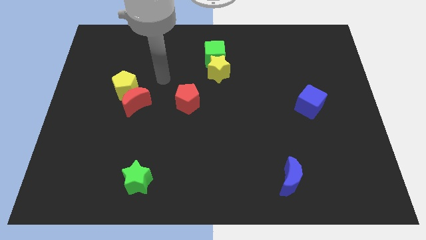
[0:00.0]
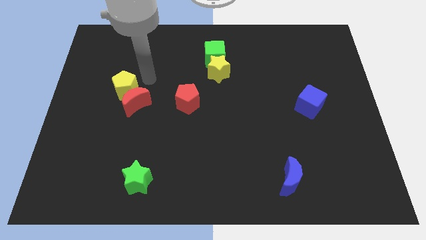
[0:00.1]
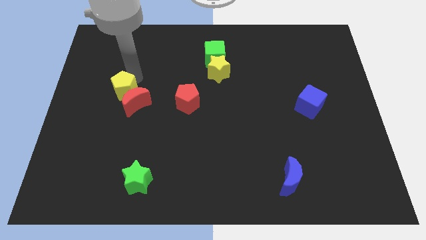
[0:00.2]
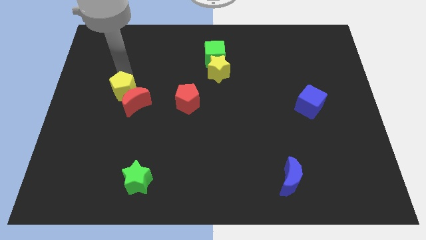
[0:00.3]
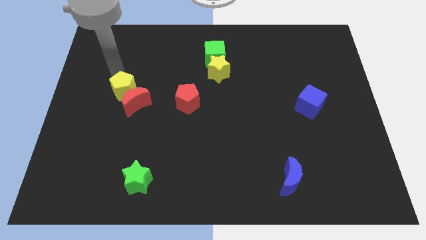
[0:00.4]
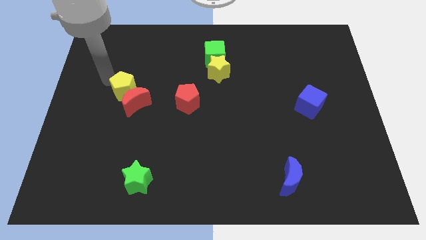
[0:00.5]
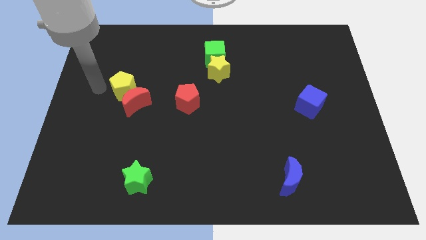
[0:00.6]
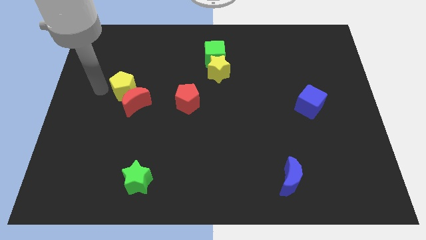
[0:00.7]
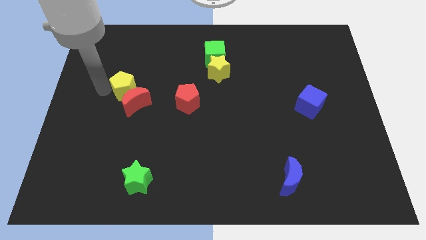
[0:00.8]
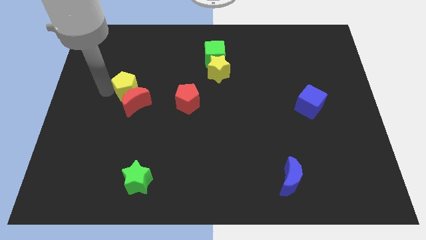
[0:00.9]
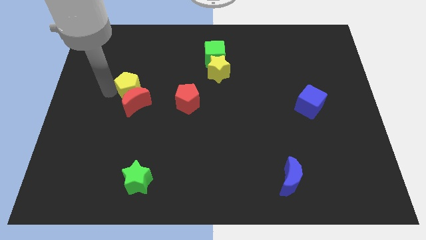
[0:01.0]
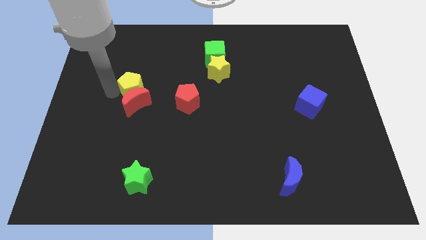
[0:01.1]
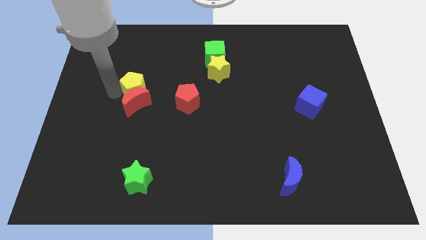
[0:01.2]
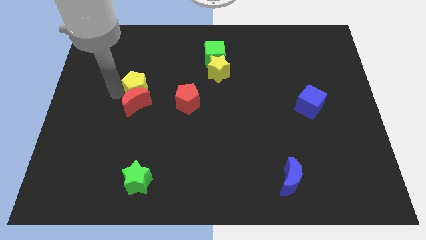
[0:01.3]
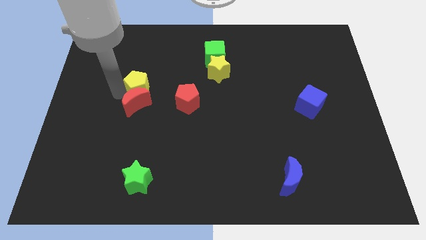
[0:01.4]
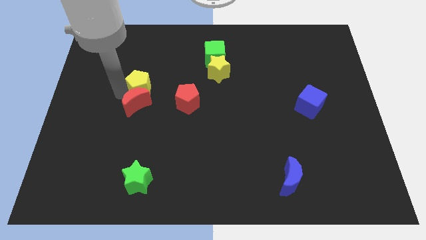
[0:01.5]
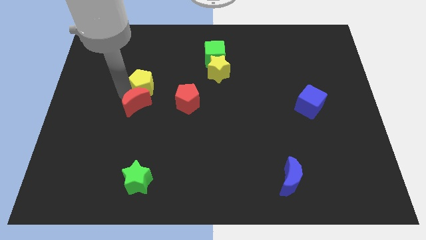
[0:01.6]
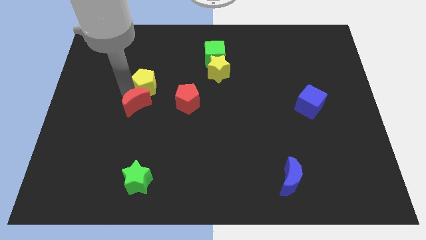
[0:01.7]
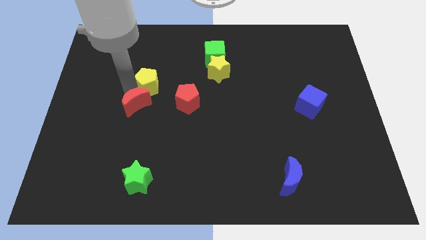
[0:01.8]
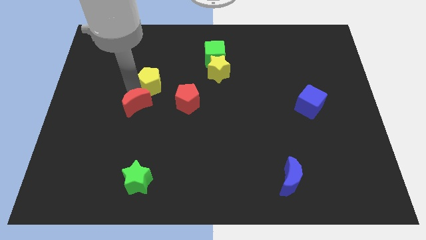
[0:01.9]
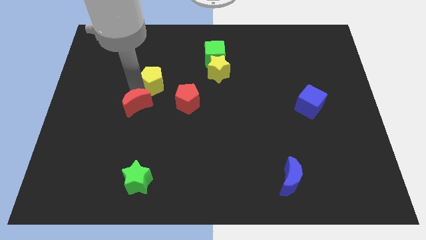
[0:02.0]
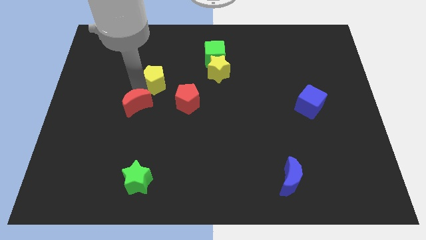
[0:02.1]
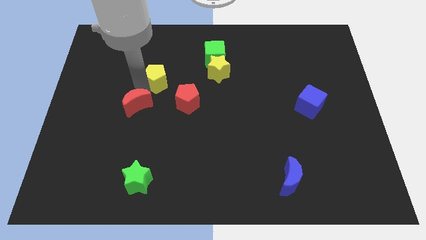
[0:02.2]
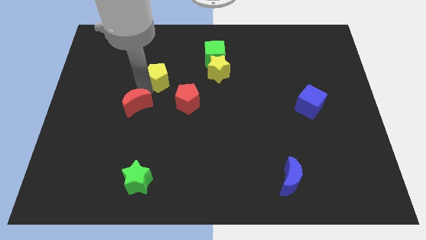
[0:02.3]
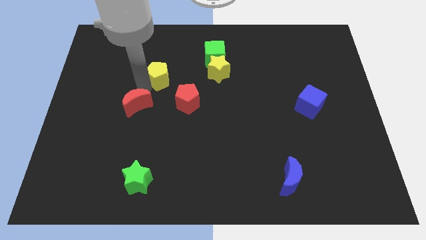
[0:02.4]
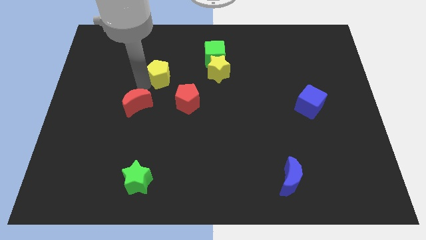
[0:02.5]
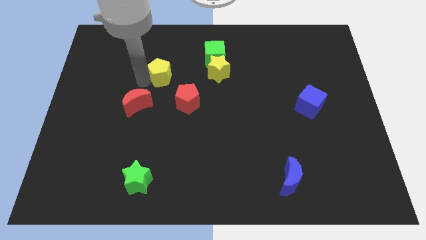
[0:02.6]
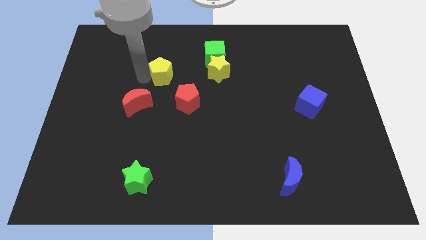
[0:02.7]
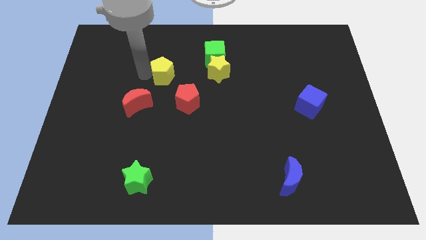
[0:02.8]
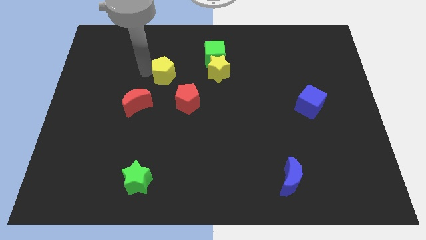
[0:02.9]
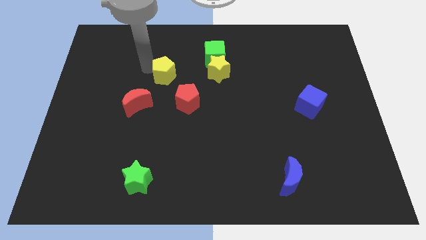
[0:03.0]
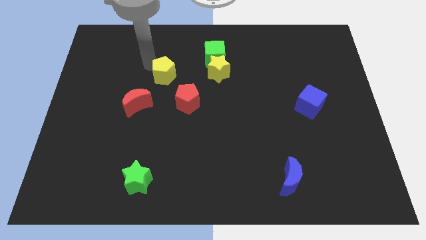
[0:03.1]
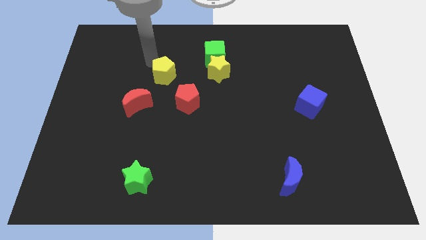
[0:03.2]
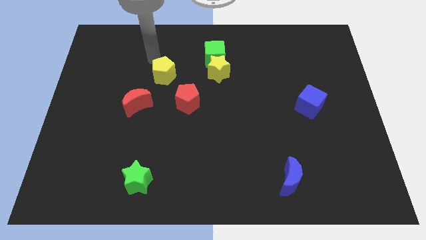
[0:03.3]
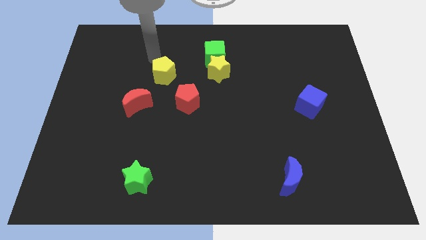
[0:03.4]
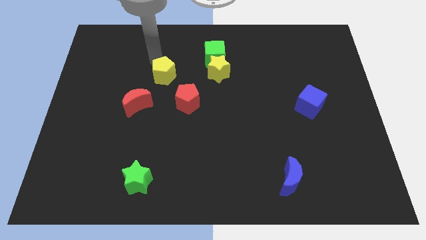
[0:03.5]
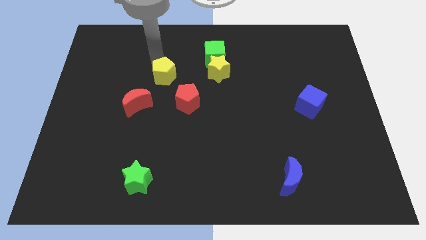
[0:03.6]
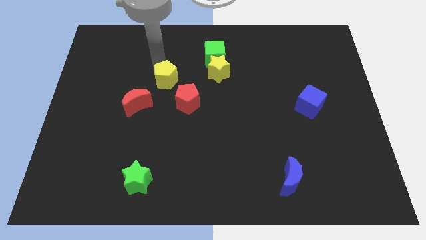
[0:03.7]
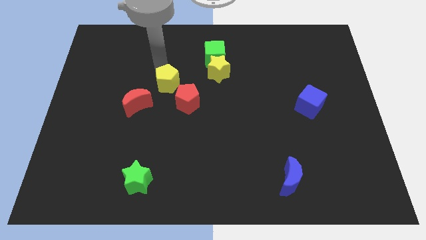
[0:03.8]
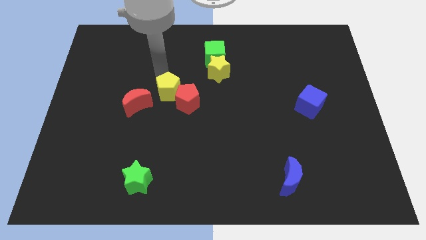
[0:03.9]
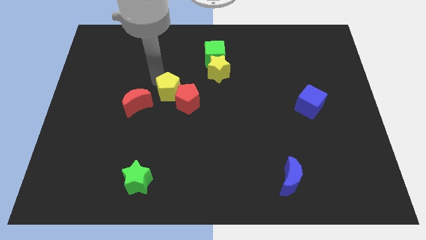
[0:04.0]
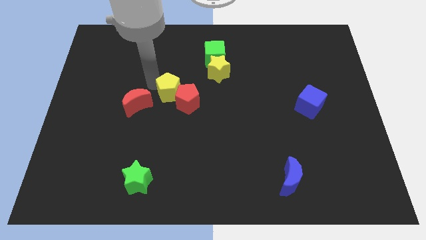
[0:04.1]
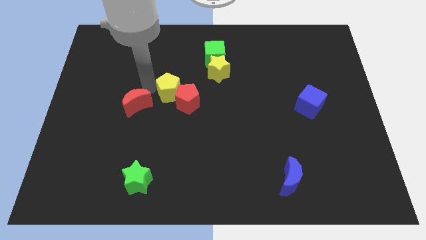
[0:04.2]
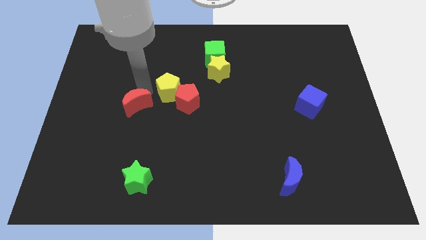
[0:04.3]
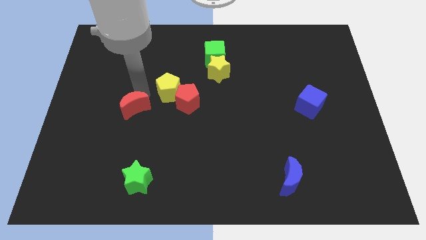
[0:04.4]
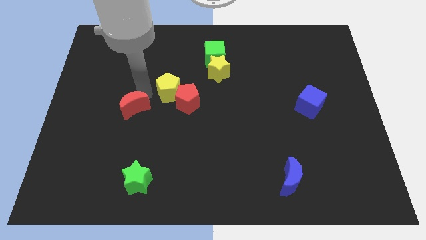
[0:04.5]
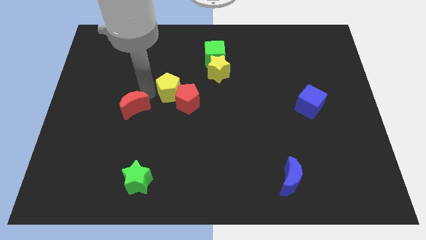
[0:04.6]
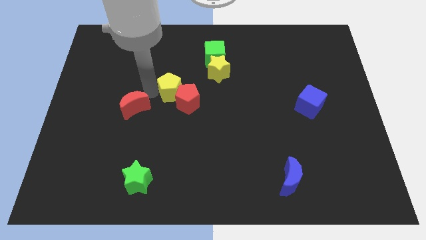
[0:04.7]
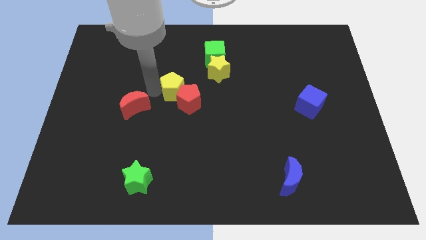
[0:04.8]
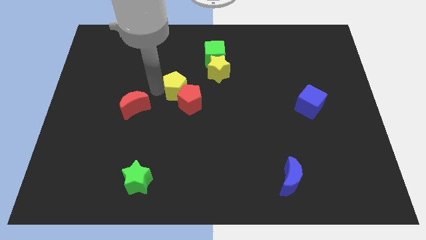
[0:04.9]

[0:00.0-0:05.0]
put the yellow pentagon diagonally down and to the left of the yellow star

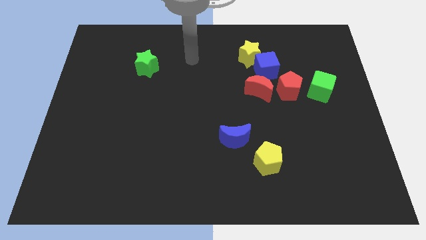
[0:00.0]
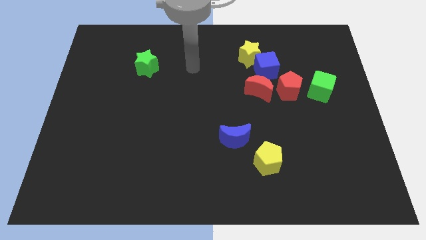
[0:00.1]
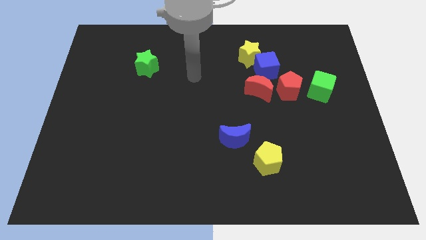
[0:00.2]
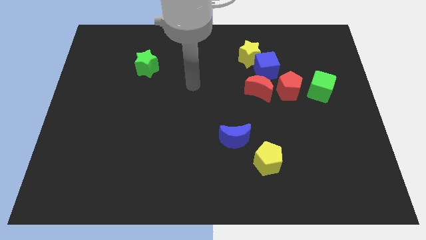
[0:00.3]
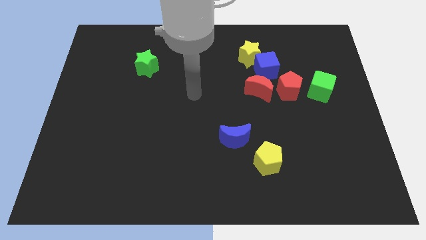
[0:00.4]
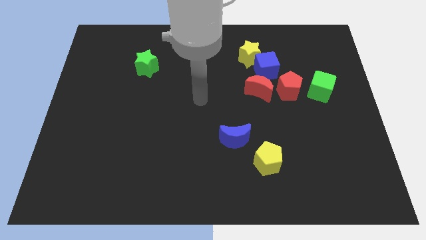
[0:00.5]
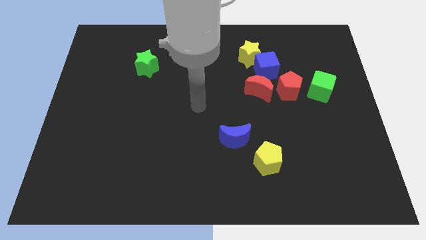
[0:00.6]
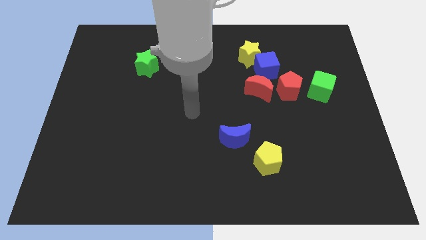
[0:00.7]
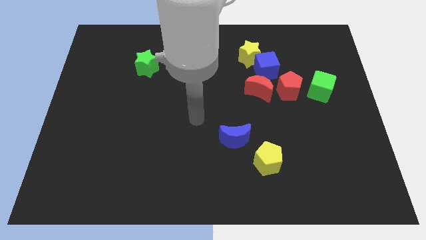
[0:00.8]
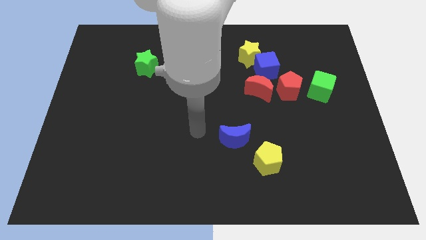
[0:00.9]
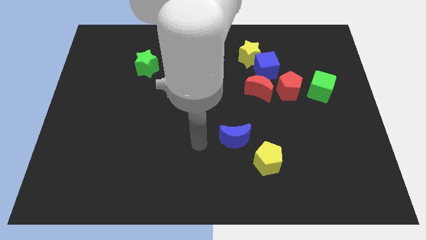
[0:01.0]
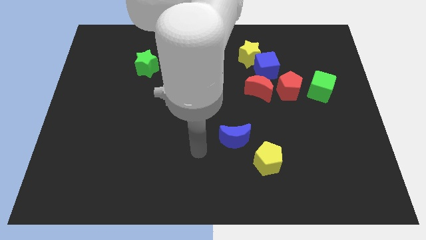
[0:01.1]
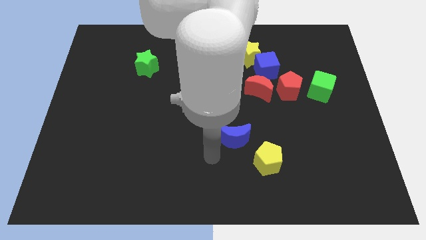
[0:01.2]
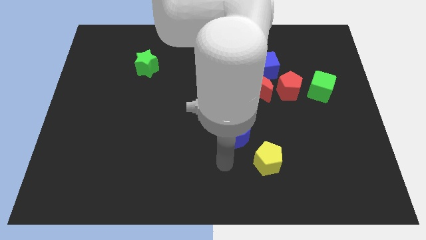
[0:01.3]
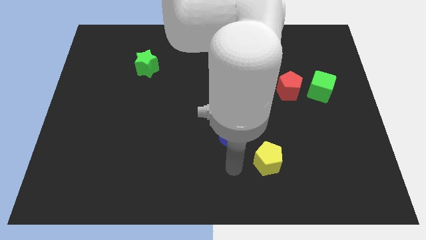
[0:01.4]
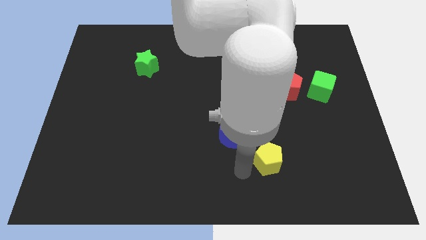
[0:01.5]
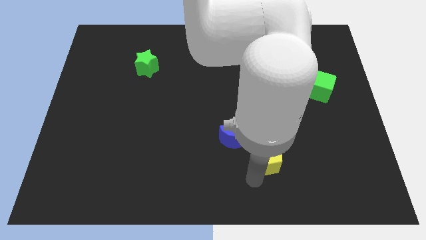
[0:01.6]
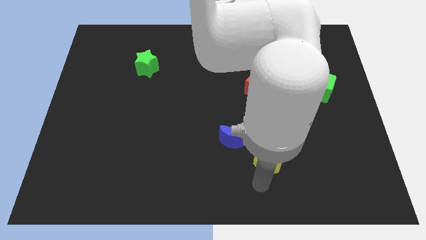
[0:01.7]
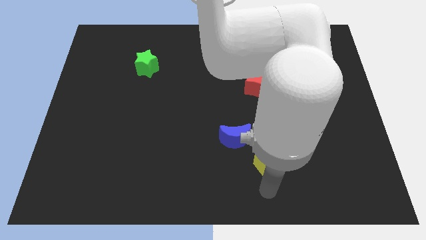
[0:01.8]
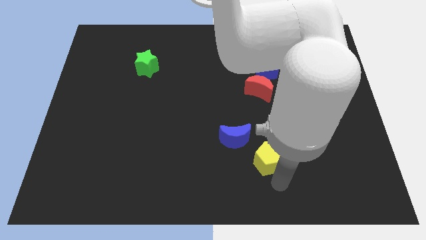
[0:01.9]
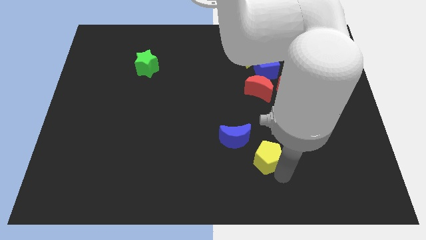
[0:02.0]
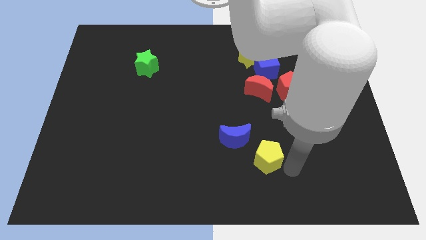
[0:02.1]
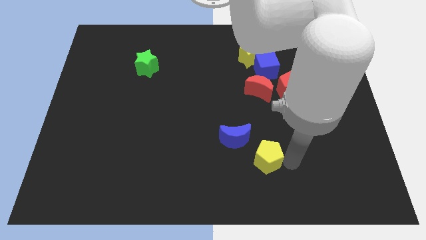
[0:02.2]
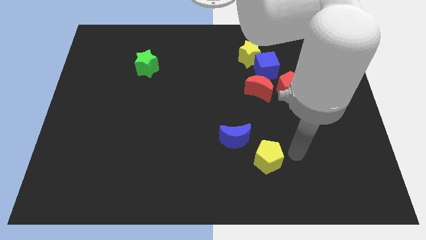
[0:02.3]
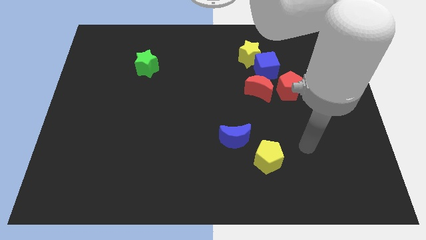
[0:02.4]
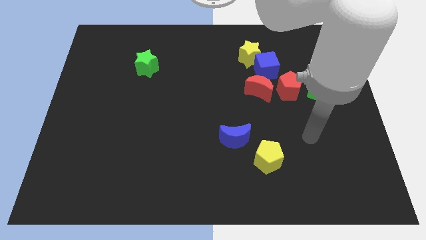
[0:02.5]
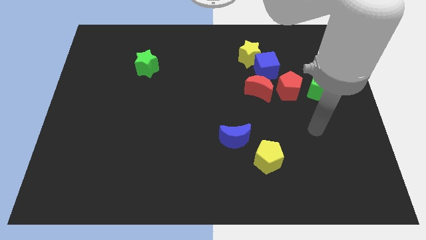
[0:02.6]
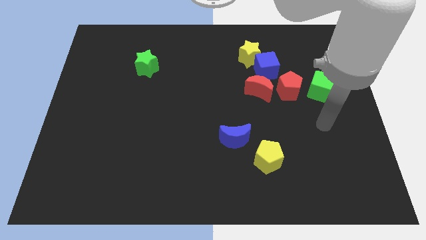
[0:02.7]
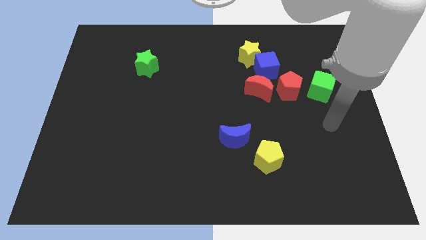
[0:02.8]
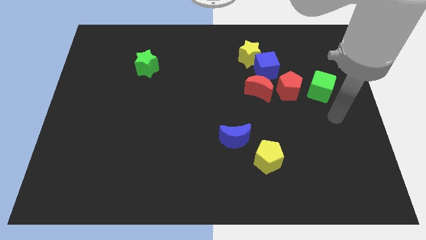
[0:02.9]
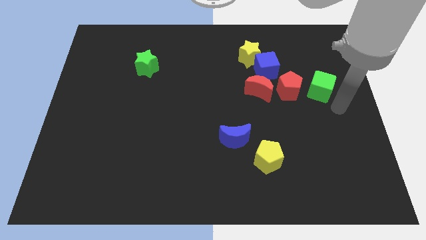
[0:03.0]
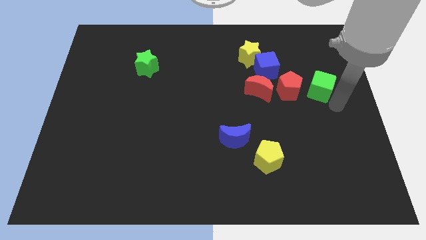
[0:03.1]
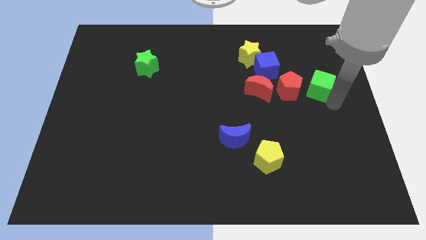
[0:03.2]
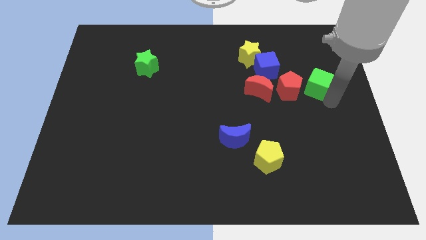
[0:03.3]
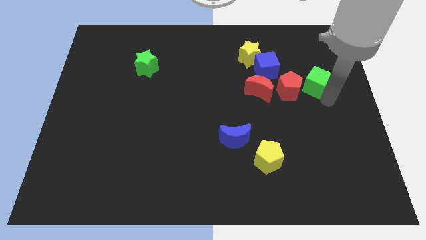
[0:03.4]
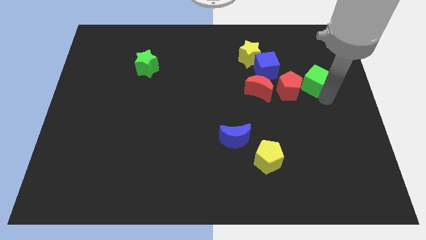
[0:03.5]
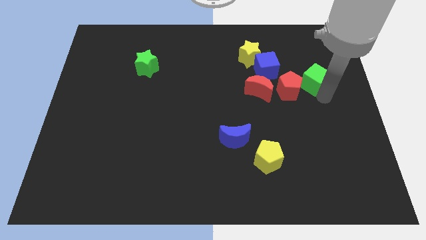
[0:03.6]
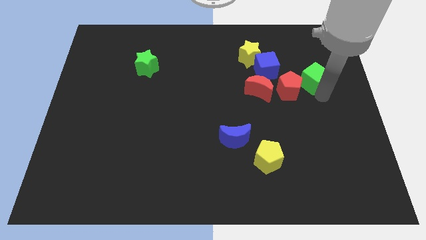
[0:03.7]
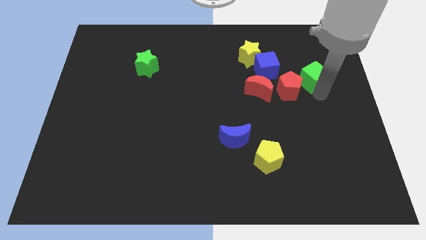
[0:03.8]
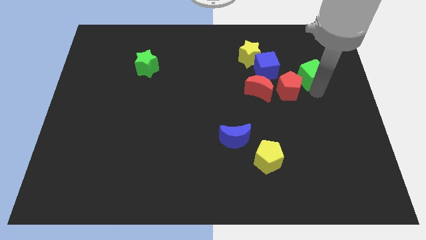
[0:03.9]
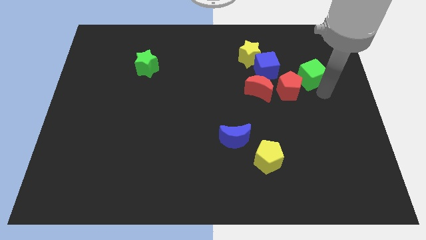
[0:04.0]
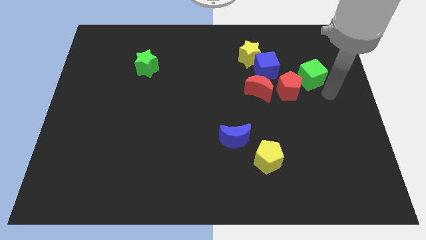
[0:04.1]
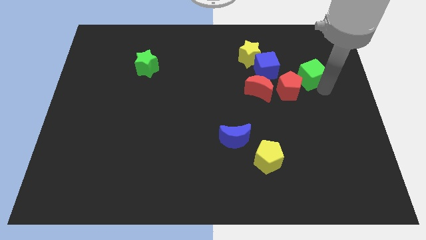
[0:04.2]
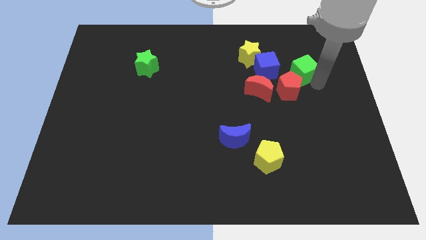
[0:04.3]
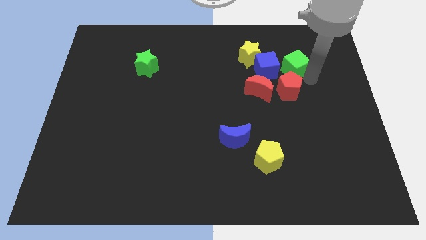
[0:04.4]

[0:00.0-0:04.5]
push the green cube diagonally up and to the right of the blue cube
